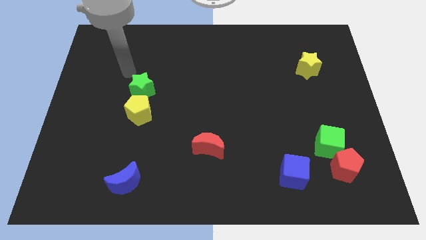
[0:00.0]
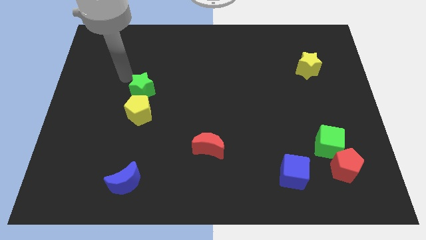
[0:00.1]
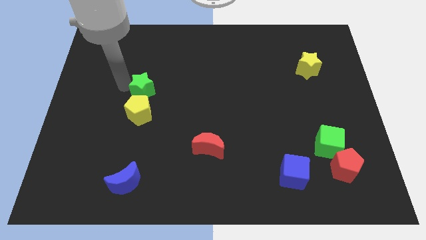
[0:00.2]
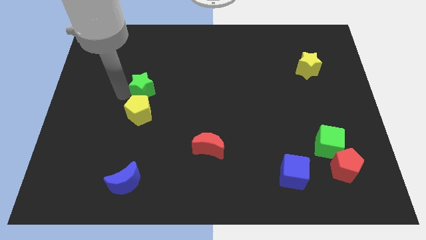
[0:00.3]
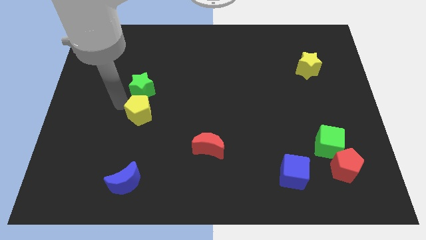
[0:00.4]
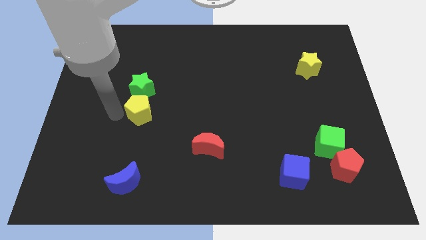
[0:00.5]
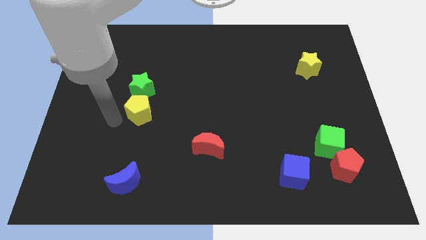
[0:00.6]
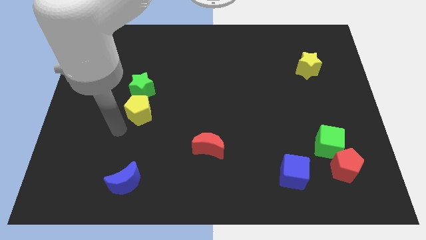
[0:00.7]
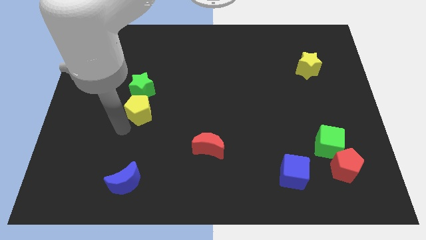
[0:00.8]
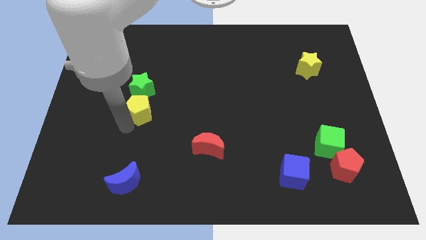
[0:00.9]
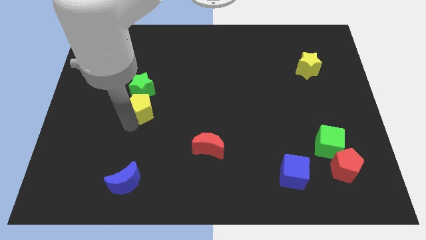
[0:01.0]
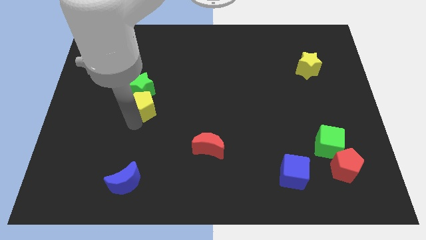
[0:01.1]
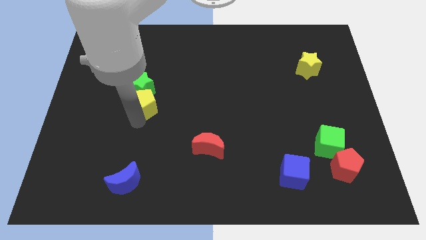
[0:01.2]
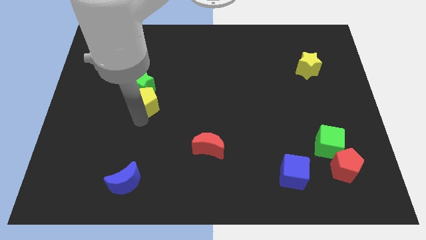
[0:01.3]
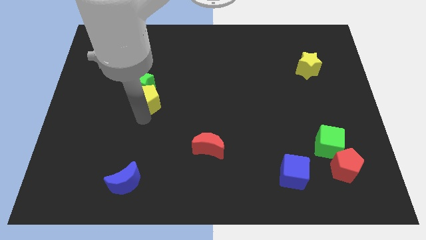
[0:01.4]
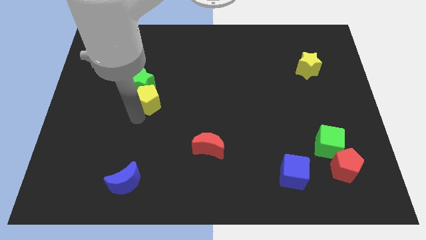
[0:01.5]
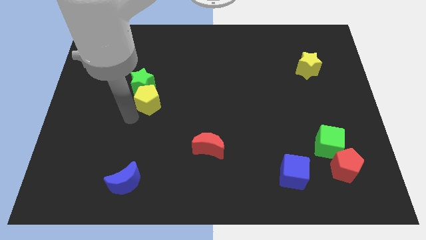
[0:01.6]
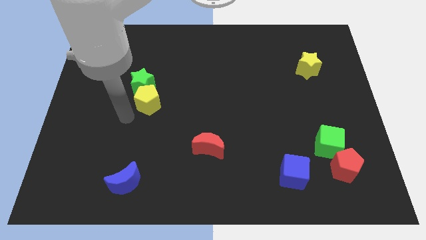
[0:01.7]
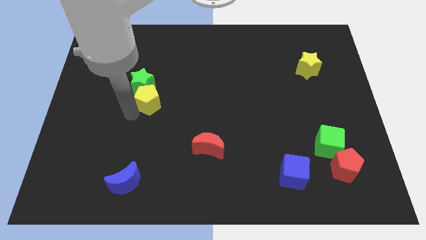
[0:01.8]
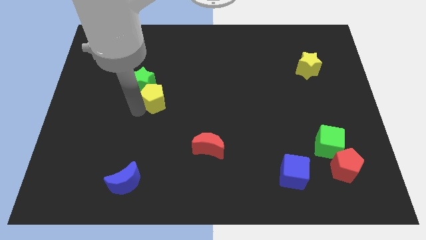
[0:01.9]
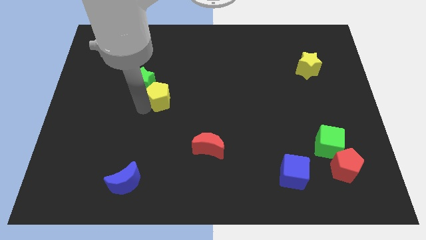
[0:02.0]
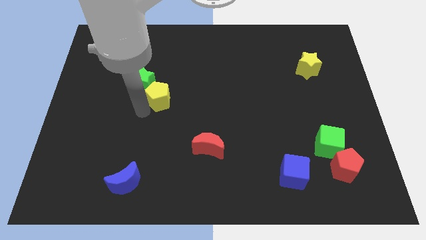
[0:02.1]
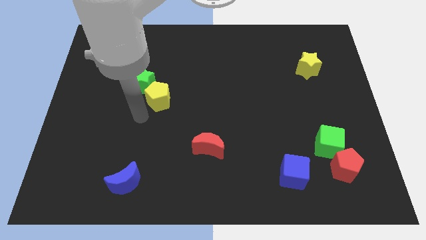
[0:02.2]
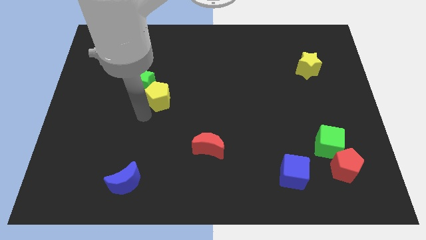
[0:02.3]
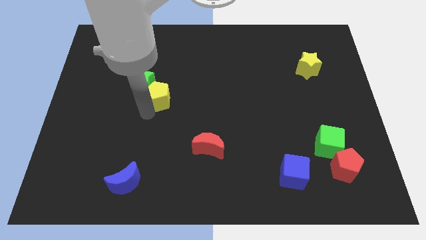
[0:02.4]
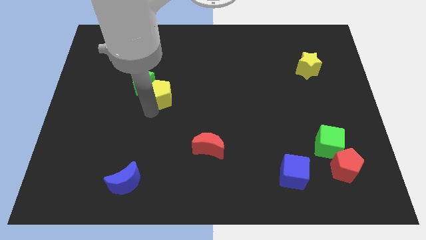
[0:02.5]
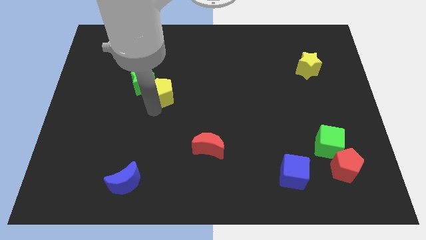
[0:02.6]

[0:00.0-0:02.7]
slightly move the yellow pentagon up and to the right

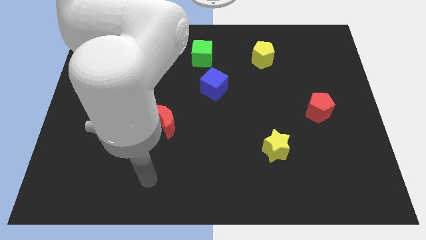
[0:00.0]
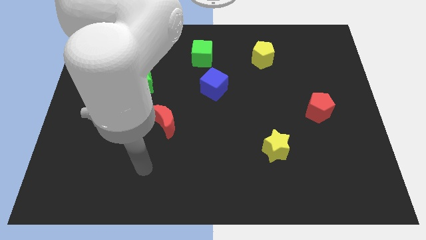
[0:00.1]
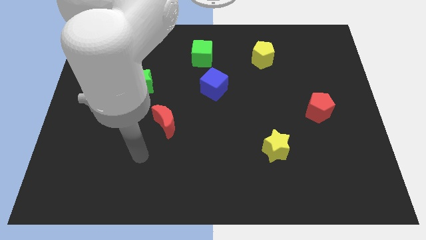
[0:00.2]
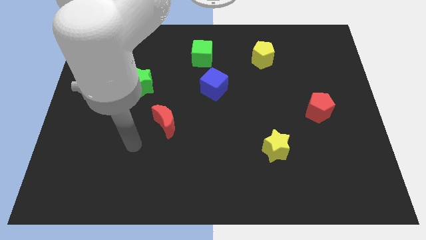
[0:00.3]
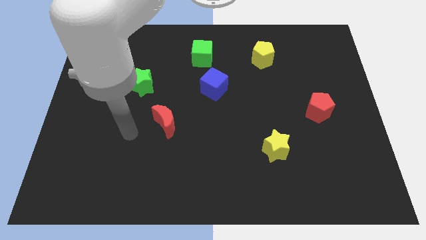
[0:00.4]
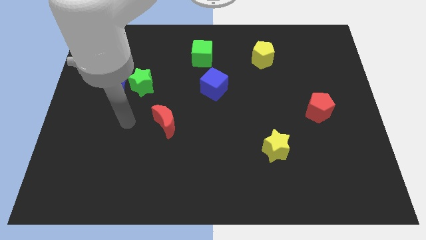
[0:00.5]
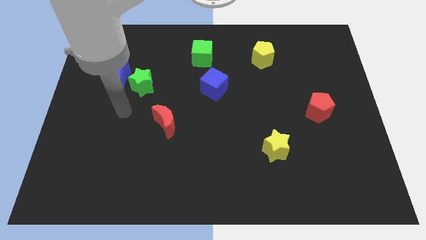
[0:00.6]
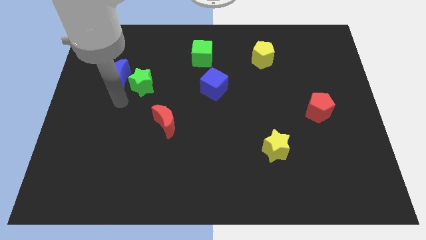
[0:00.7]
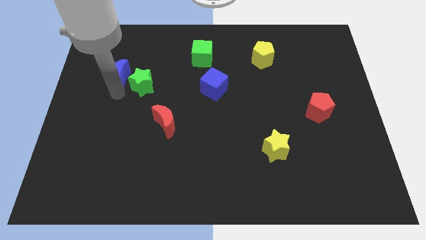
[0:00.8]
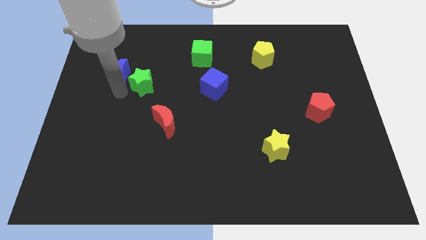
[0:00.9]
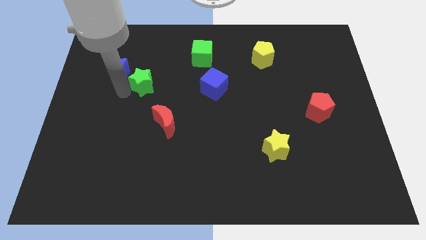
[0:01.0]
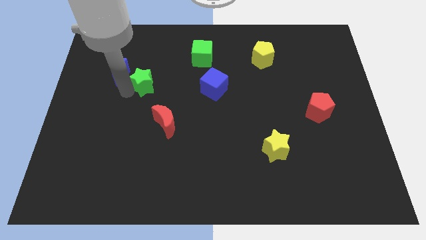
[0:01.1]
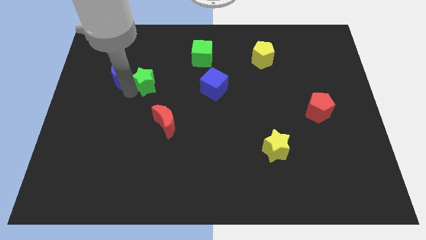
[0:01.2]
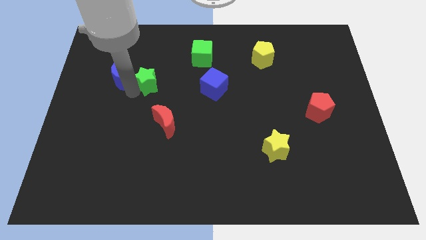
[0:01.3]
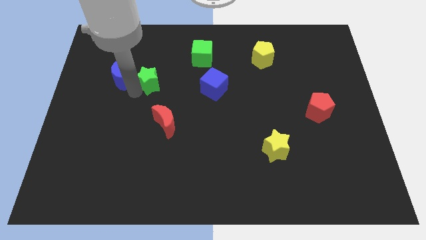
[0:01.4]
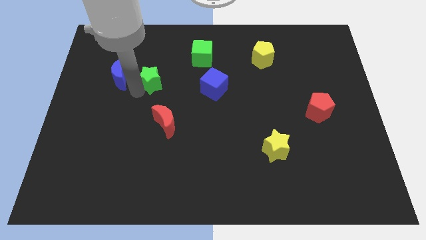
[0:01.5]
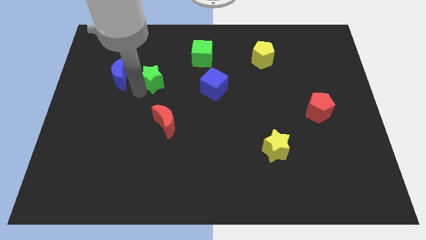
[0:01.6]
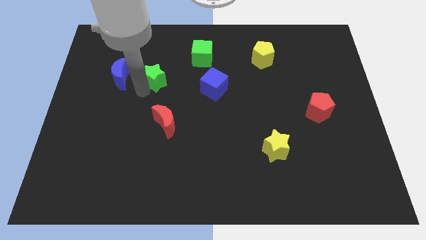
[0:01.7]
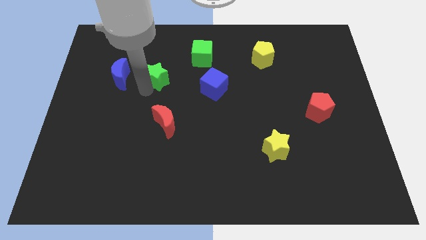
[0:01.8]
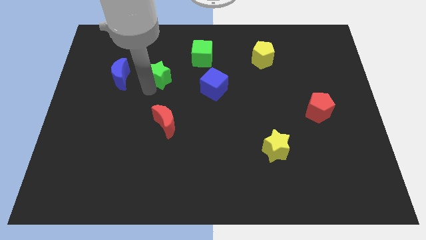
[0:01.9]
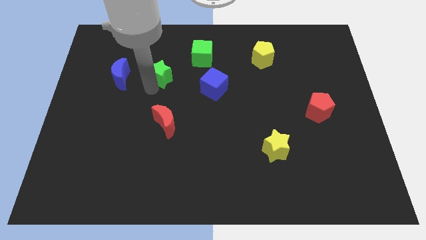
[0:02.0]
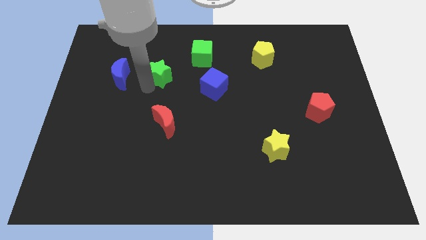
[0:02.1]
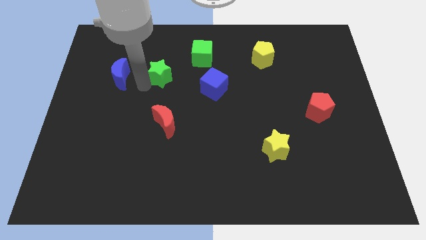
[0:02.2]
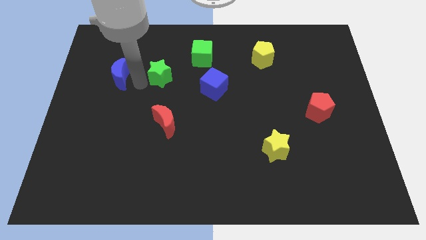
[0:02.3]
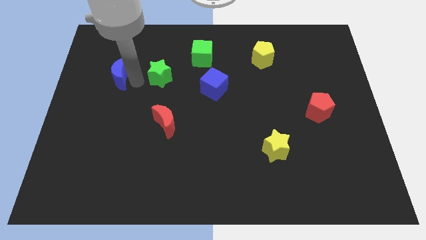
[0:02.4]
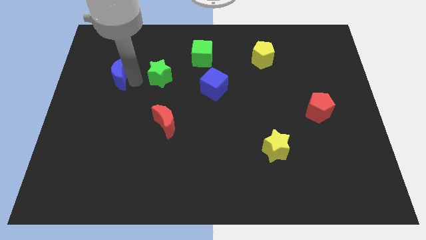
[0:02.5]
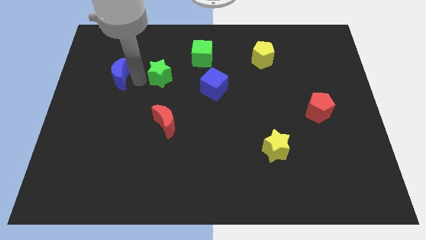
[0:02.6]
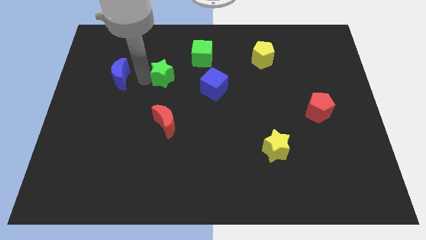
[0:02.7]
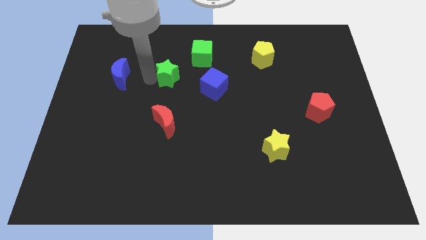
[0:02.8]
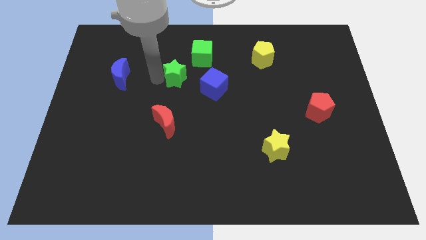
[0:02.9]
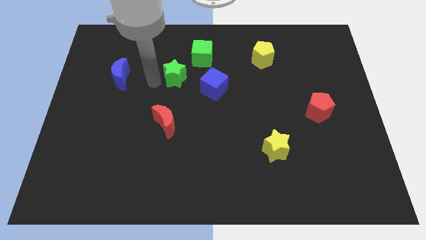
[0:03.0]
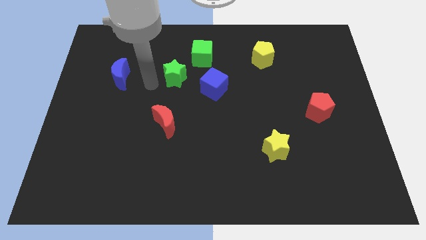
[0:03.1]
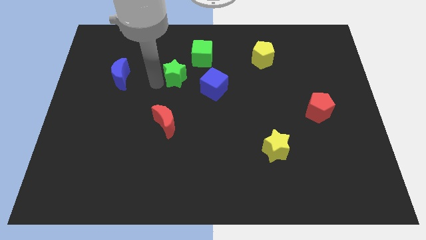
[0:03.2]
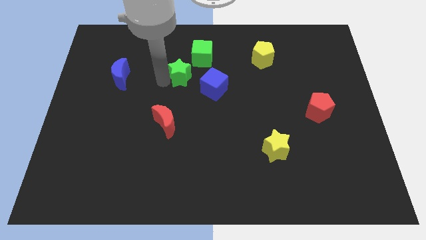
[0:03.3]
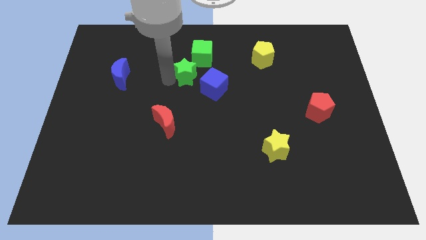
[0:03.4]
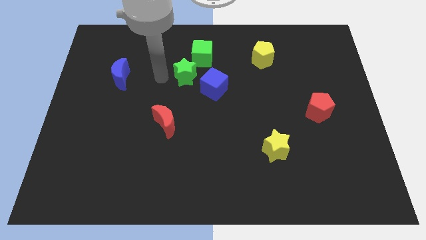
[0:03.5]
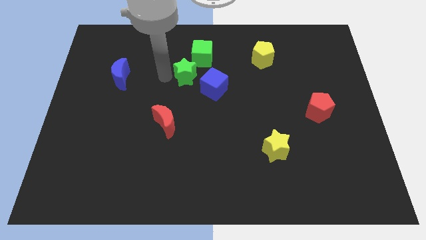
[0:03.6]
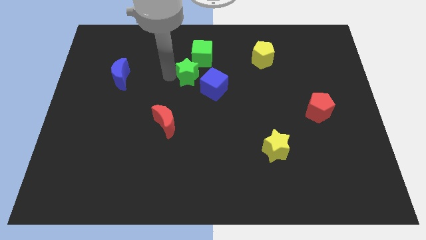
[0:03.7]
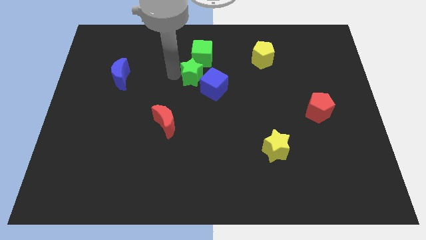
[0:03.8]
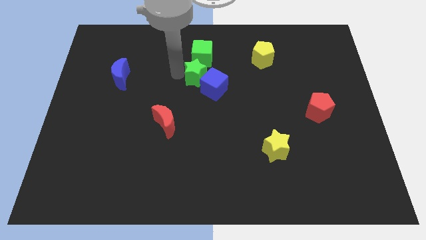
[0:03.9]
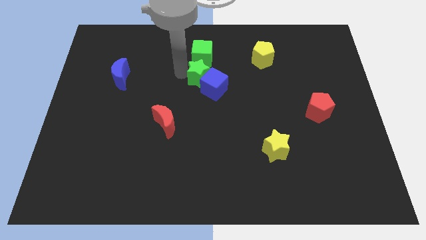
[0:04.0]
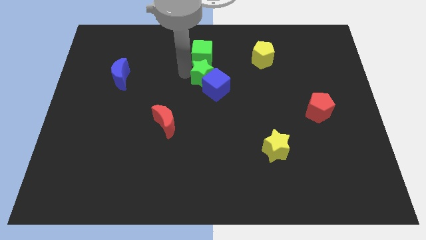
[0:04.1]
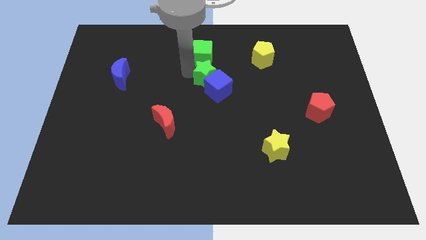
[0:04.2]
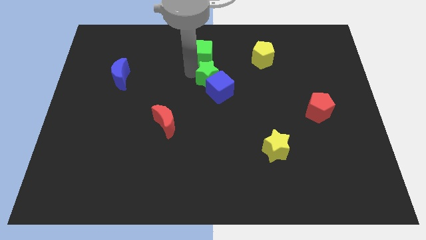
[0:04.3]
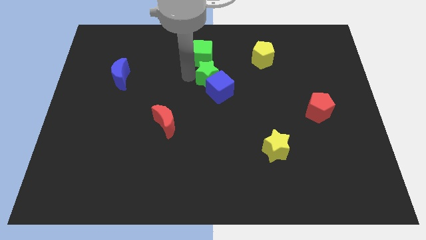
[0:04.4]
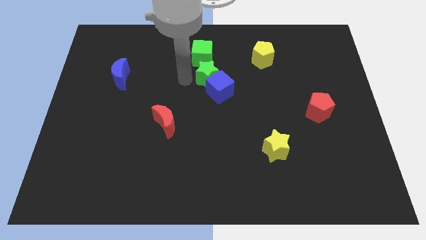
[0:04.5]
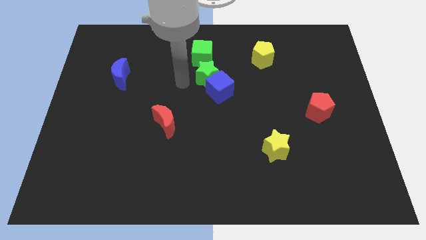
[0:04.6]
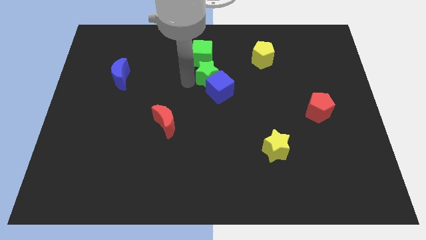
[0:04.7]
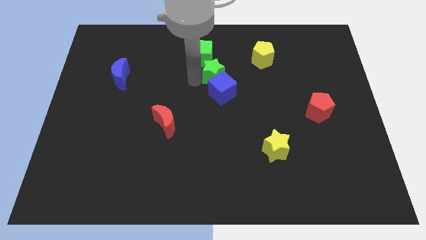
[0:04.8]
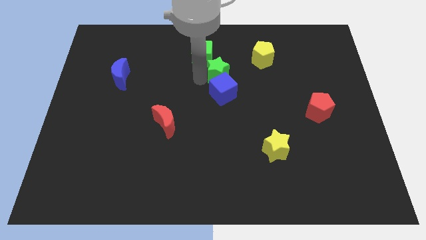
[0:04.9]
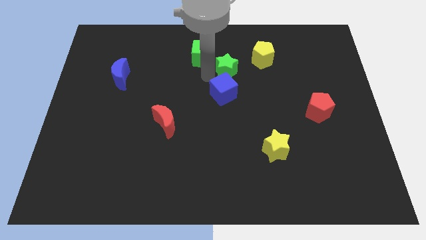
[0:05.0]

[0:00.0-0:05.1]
push the green star to the right
